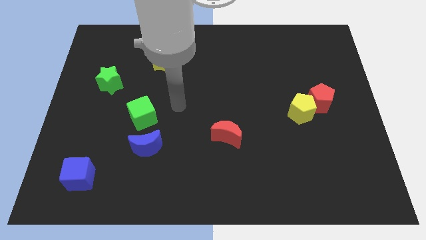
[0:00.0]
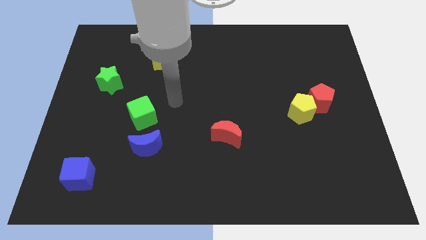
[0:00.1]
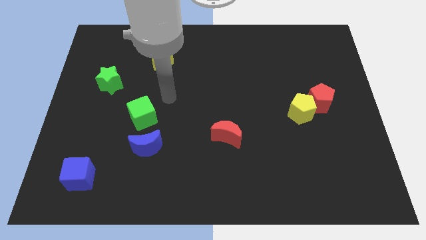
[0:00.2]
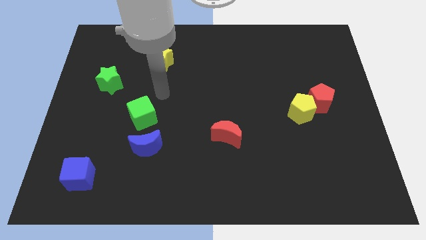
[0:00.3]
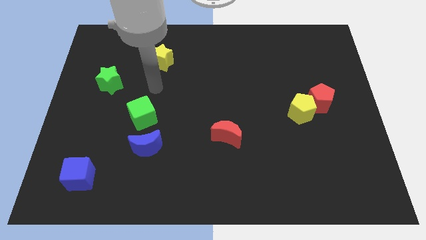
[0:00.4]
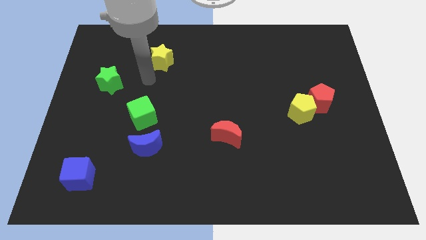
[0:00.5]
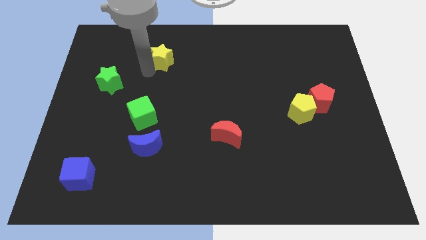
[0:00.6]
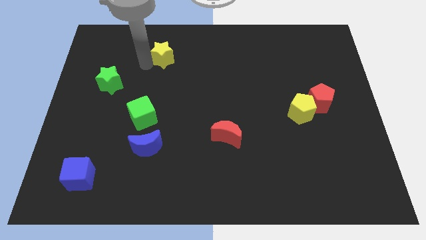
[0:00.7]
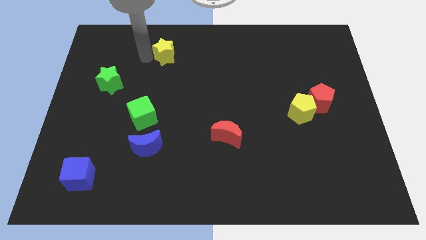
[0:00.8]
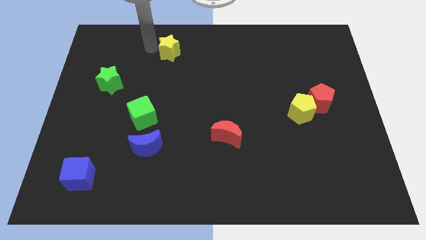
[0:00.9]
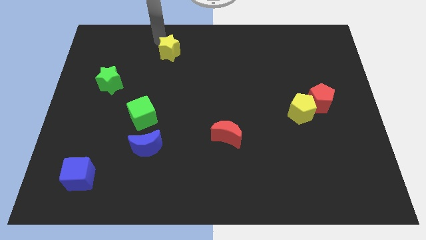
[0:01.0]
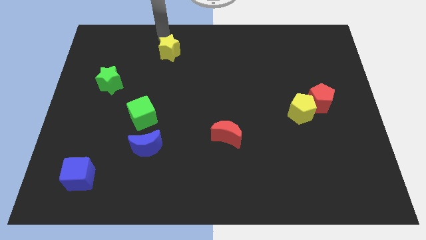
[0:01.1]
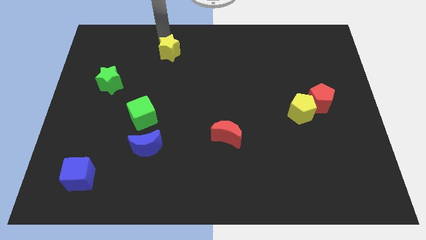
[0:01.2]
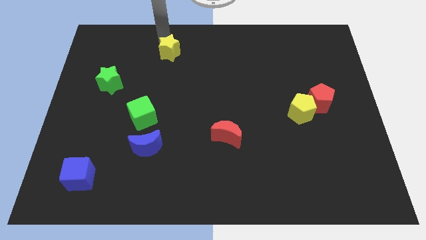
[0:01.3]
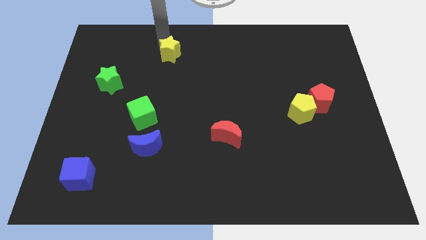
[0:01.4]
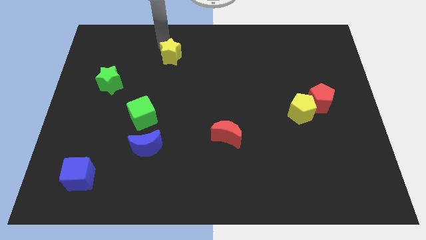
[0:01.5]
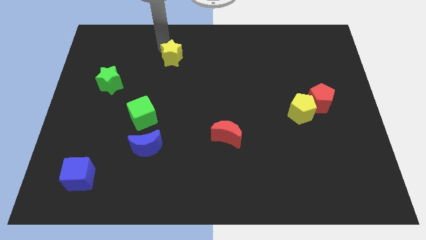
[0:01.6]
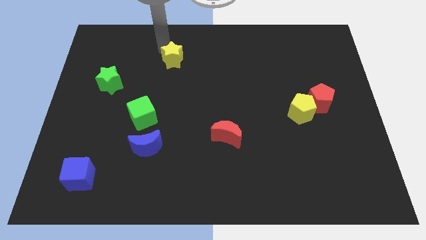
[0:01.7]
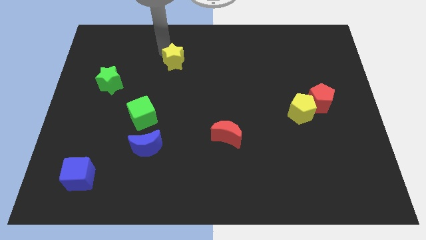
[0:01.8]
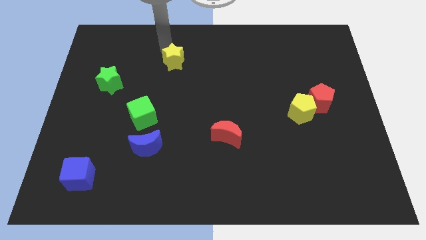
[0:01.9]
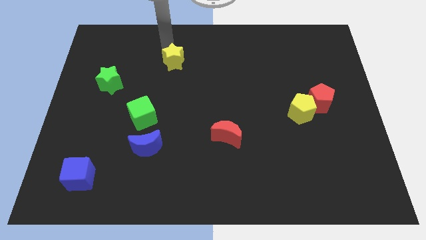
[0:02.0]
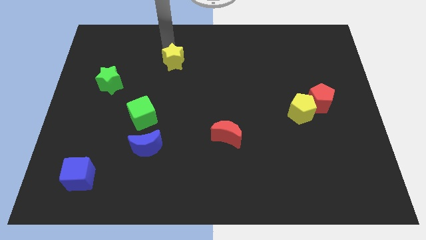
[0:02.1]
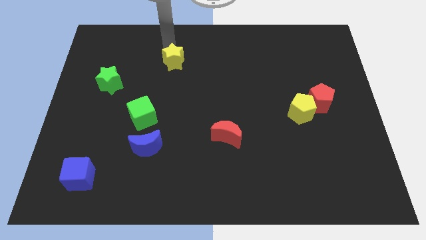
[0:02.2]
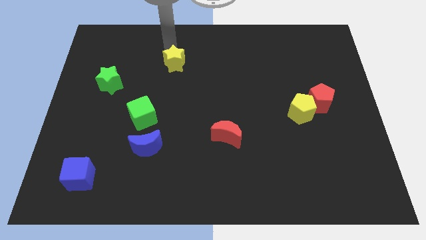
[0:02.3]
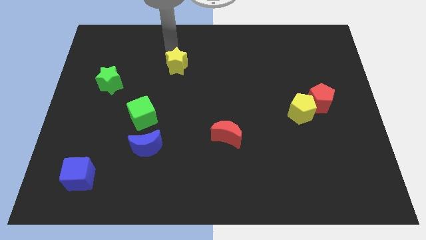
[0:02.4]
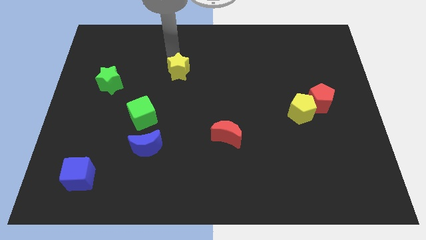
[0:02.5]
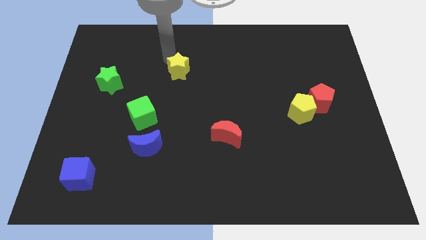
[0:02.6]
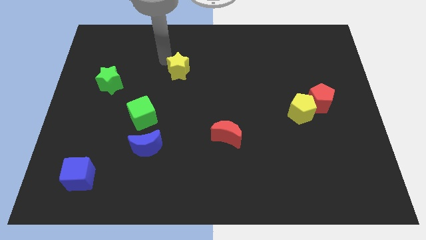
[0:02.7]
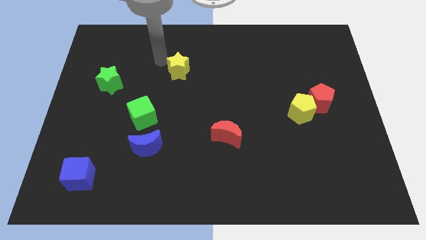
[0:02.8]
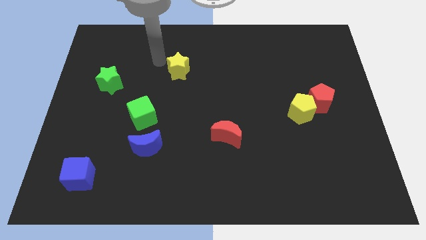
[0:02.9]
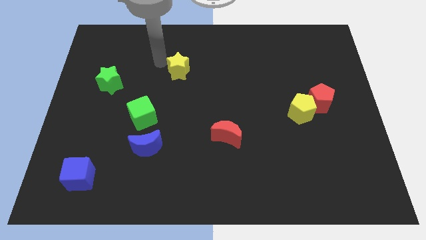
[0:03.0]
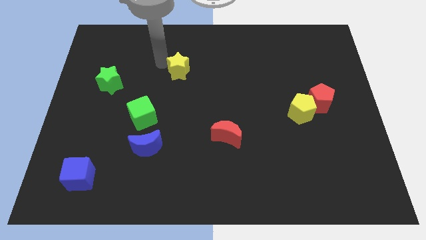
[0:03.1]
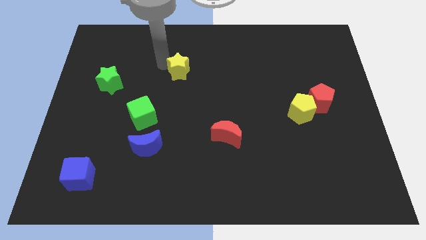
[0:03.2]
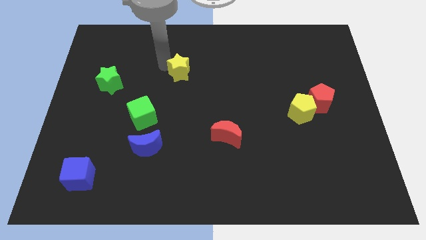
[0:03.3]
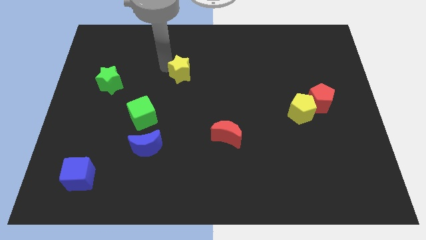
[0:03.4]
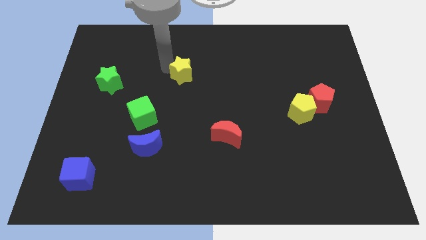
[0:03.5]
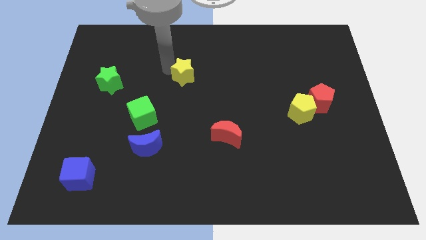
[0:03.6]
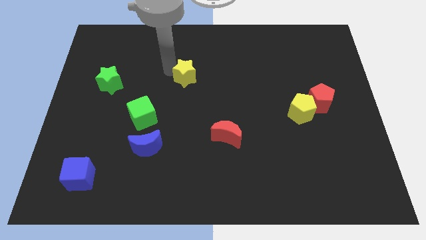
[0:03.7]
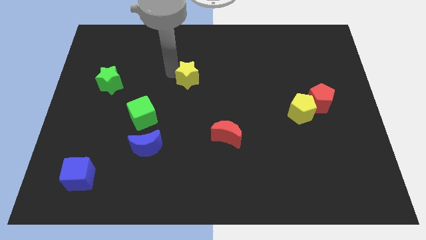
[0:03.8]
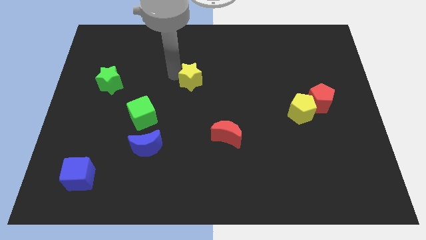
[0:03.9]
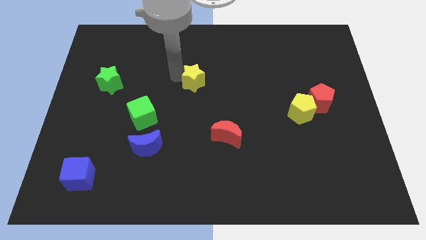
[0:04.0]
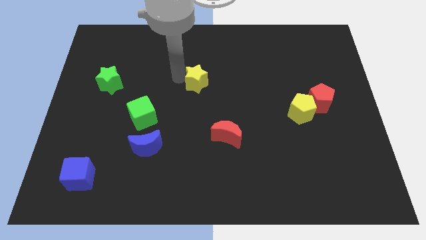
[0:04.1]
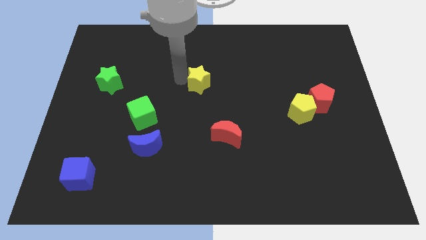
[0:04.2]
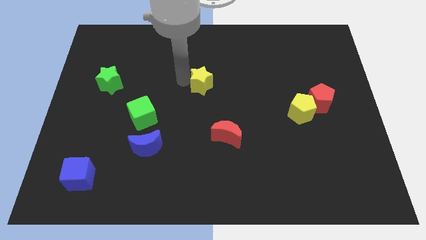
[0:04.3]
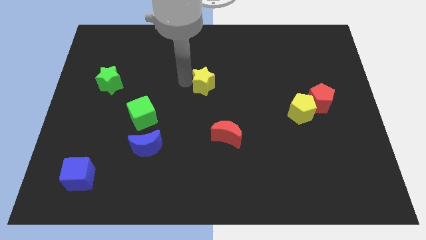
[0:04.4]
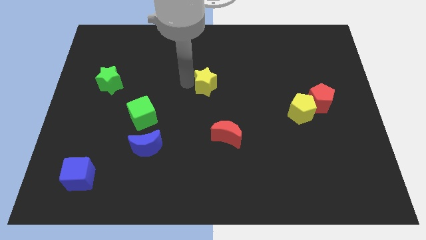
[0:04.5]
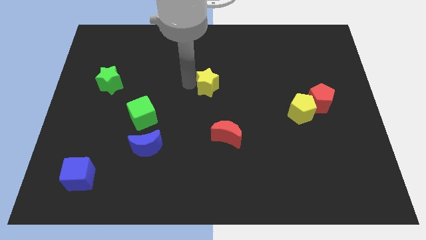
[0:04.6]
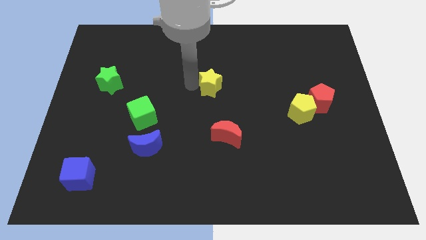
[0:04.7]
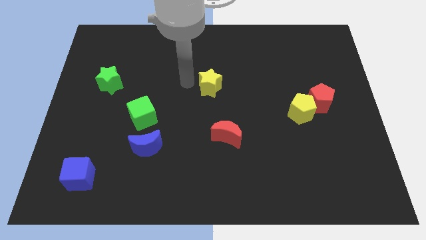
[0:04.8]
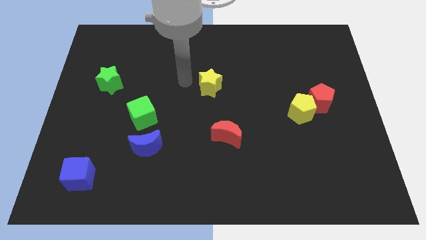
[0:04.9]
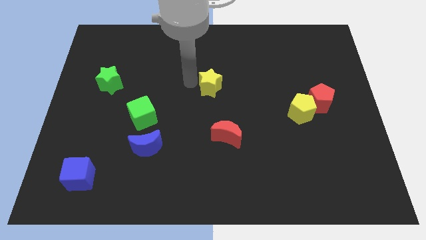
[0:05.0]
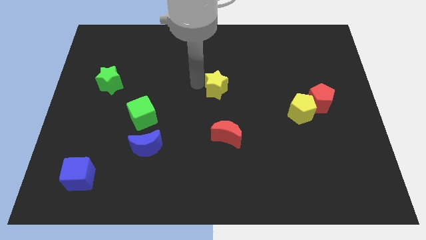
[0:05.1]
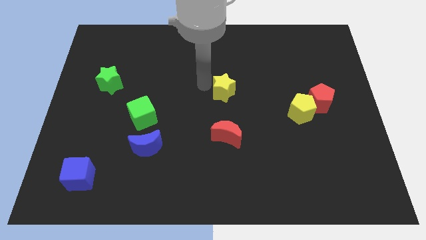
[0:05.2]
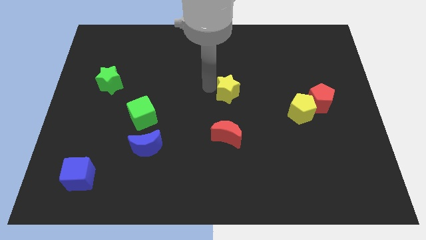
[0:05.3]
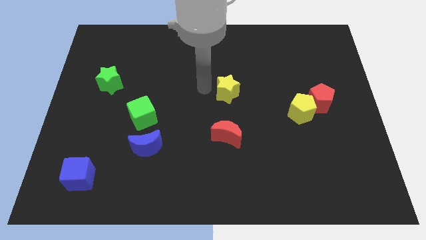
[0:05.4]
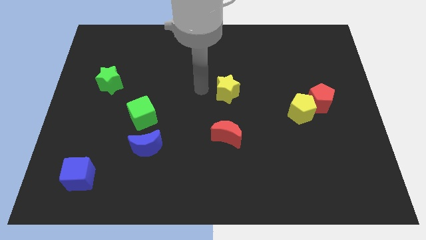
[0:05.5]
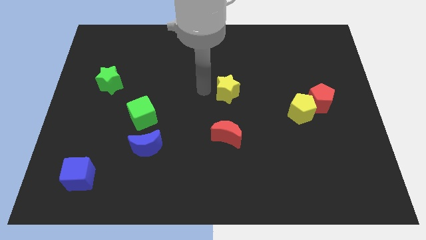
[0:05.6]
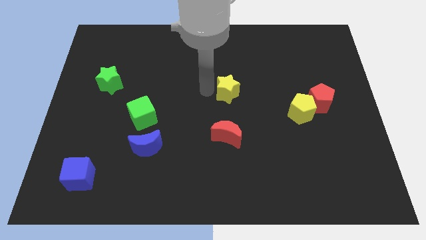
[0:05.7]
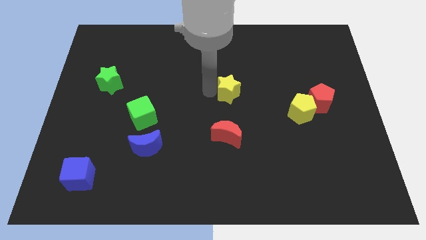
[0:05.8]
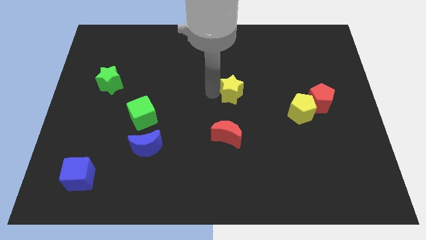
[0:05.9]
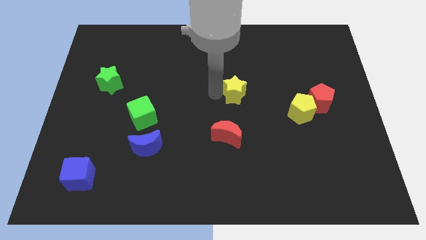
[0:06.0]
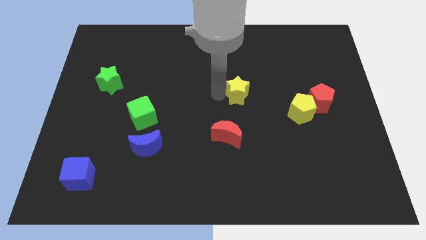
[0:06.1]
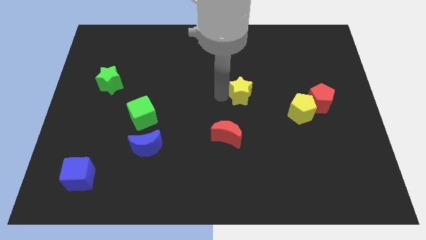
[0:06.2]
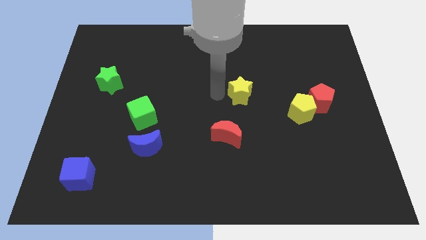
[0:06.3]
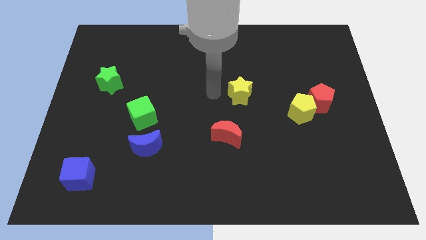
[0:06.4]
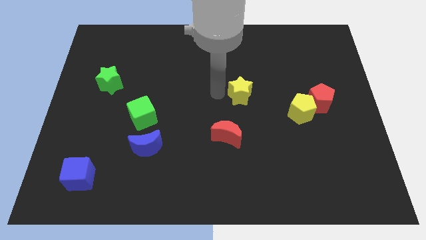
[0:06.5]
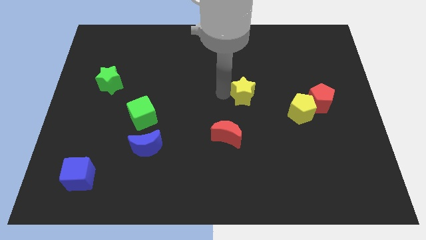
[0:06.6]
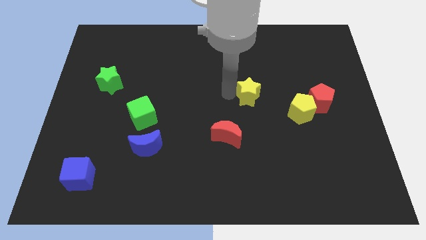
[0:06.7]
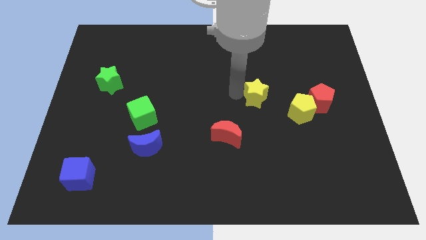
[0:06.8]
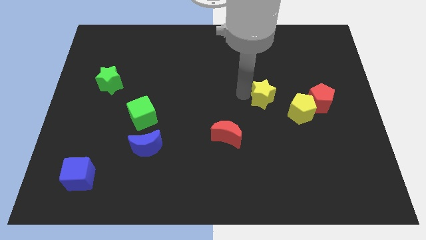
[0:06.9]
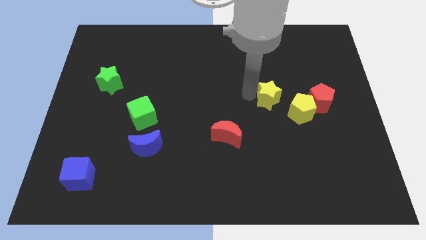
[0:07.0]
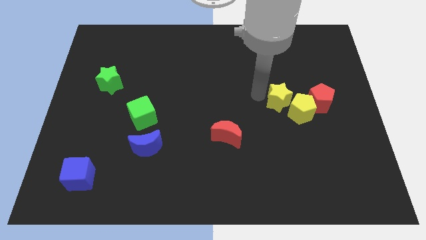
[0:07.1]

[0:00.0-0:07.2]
put the yellow star to the yellow pentagon

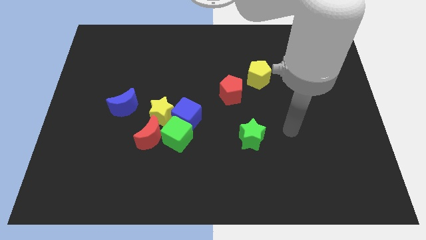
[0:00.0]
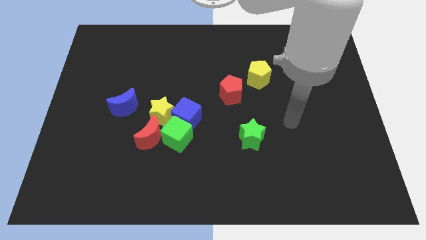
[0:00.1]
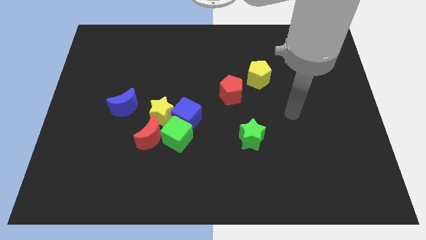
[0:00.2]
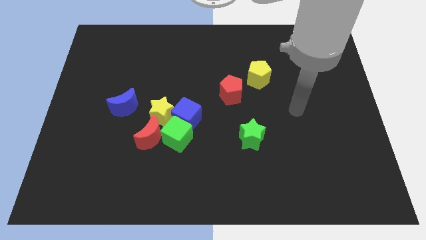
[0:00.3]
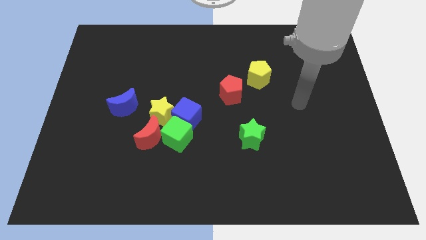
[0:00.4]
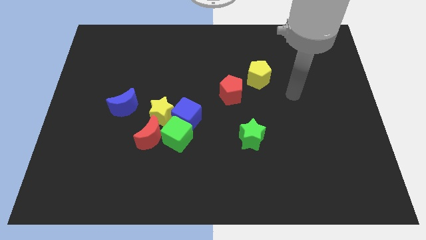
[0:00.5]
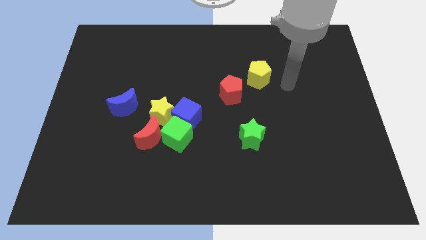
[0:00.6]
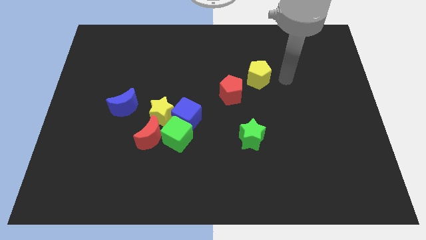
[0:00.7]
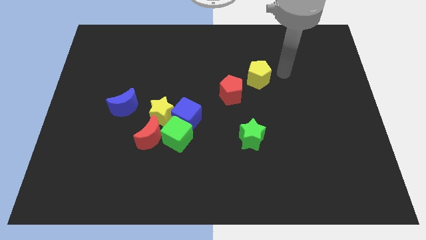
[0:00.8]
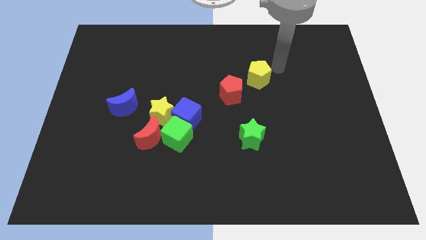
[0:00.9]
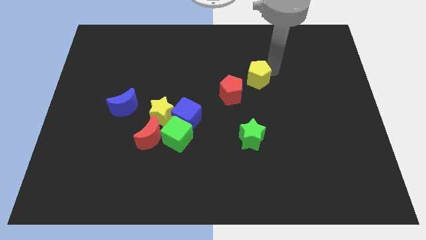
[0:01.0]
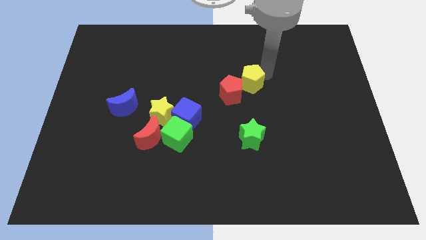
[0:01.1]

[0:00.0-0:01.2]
put the yellow pentagon close to the red pentagon
